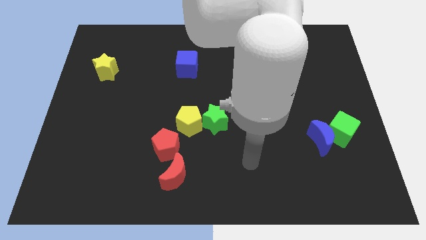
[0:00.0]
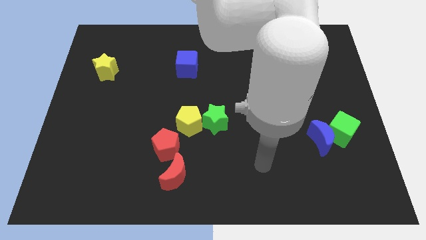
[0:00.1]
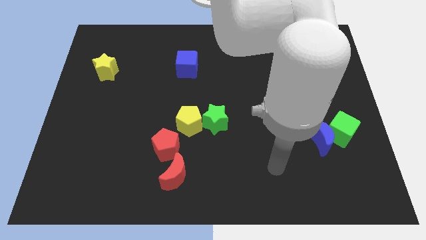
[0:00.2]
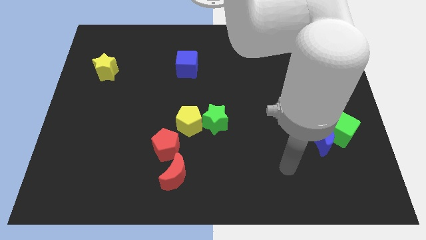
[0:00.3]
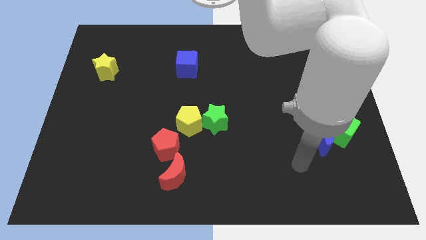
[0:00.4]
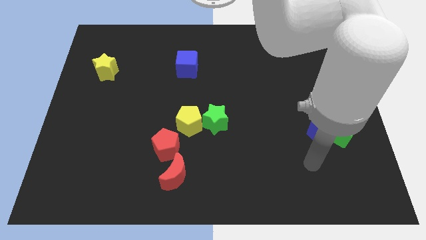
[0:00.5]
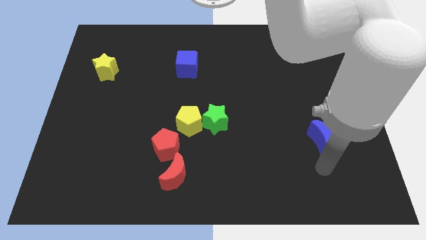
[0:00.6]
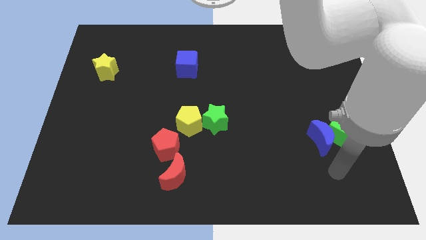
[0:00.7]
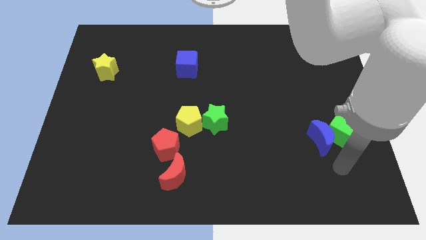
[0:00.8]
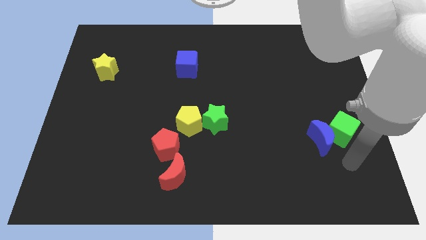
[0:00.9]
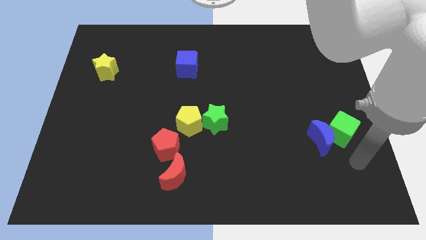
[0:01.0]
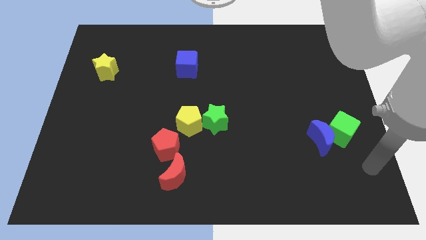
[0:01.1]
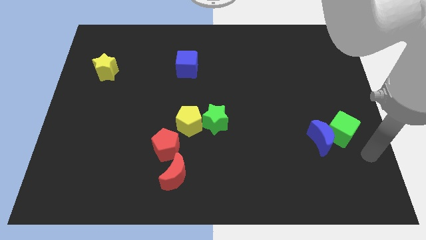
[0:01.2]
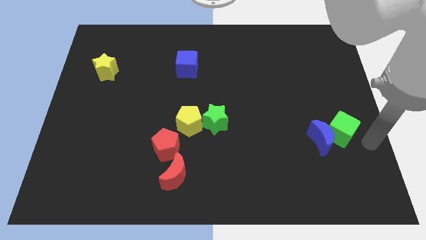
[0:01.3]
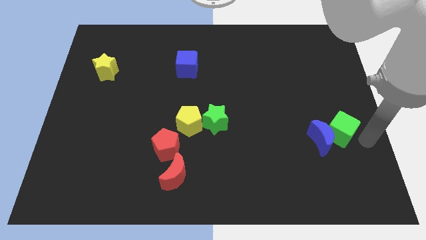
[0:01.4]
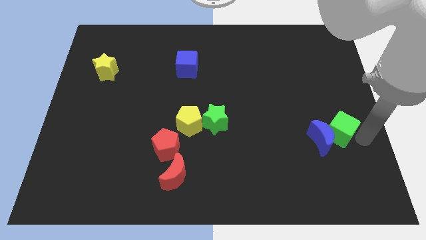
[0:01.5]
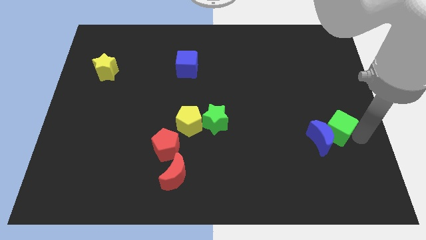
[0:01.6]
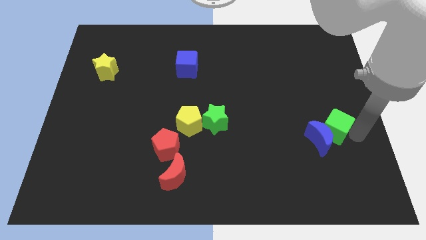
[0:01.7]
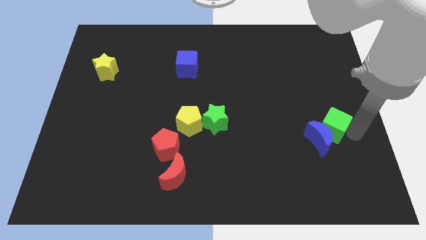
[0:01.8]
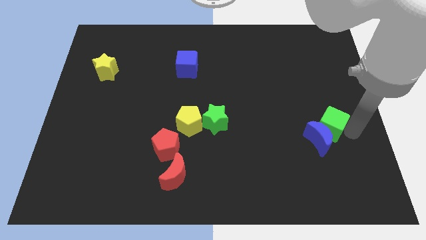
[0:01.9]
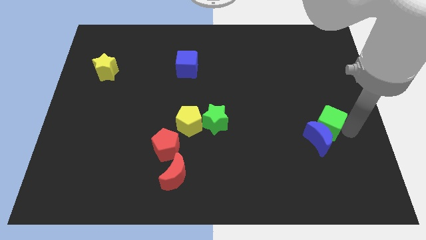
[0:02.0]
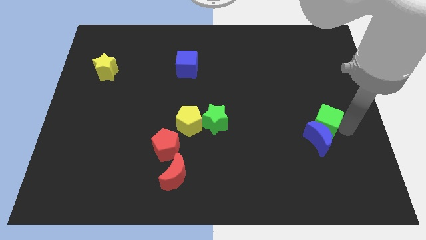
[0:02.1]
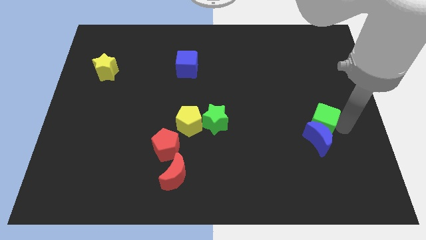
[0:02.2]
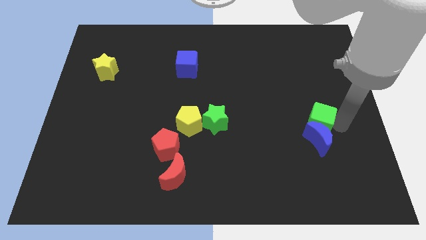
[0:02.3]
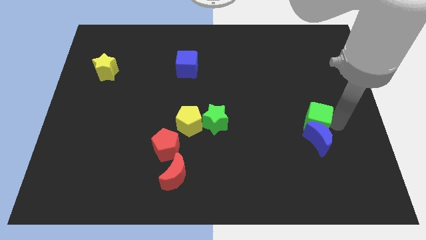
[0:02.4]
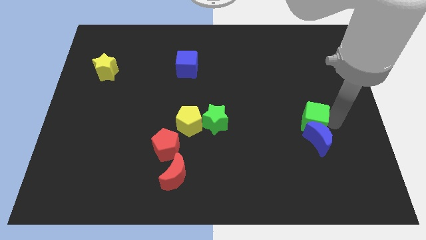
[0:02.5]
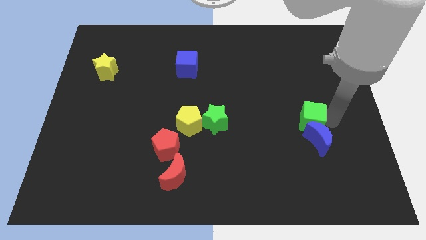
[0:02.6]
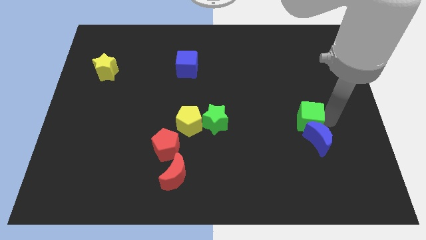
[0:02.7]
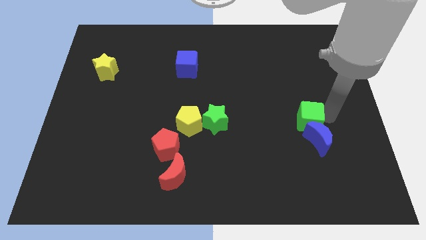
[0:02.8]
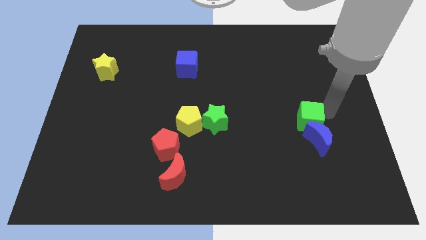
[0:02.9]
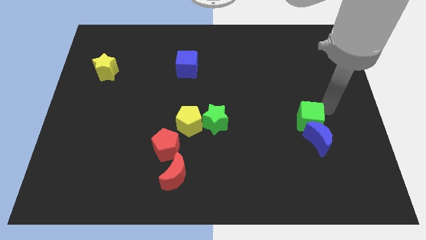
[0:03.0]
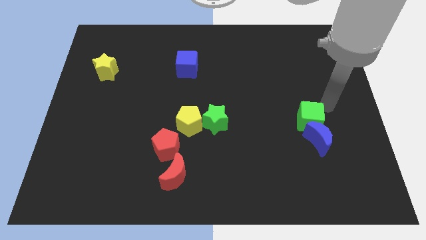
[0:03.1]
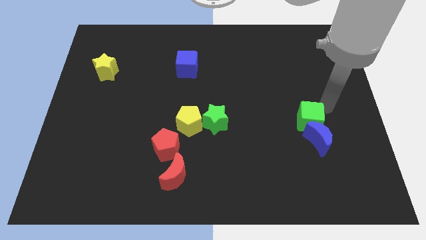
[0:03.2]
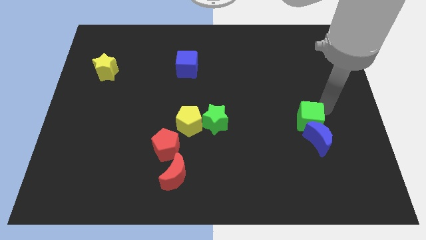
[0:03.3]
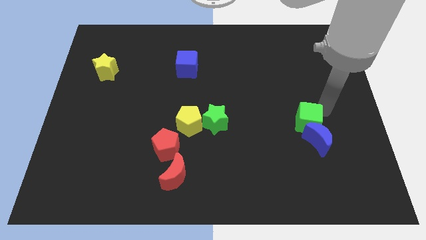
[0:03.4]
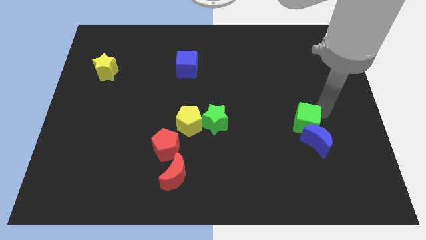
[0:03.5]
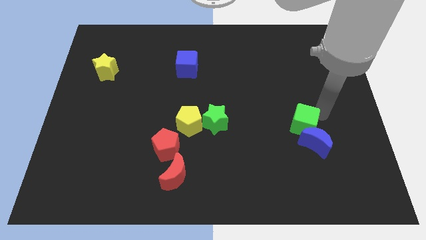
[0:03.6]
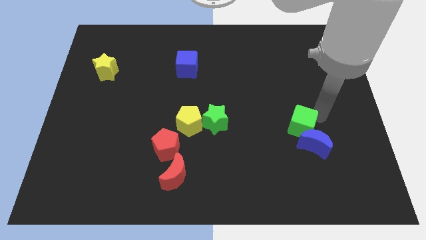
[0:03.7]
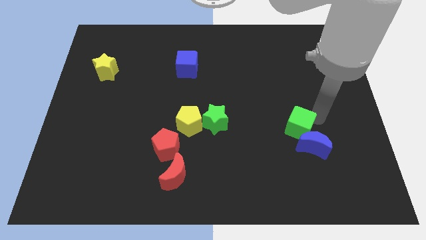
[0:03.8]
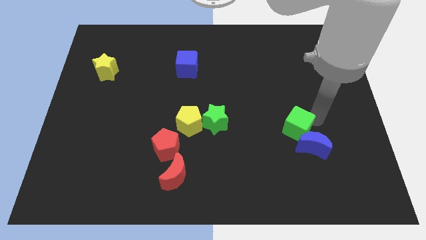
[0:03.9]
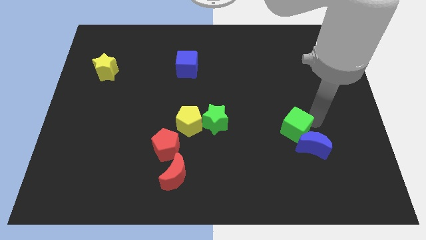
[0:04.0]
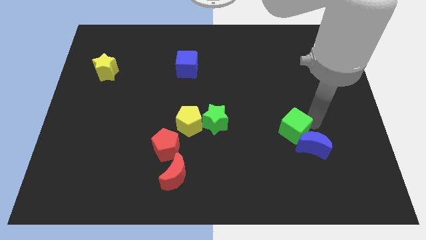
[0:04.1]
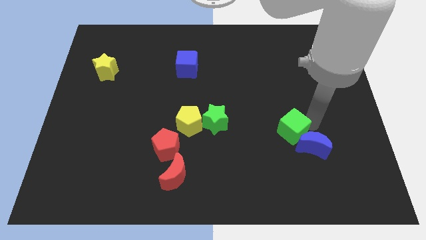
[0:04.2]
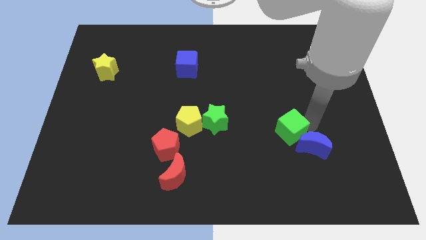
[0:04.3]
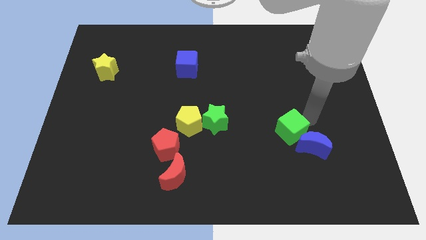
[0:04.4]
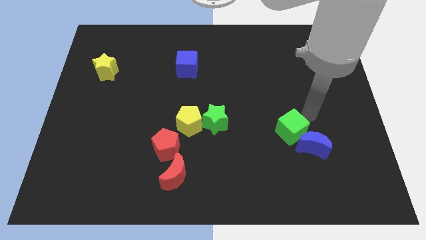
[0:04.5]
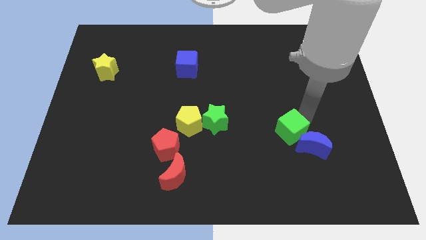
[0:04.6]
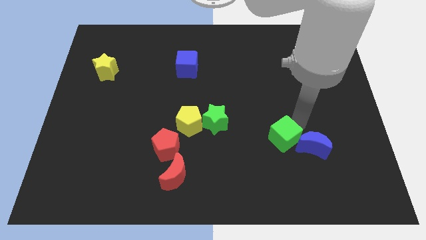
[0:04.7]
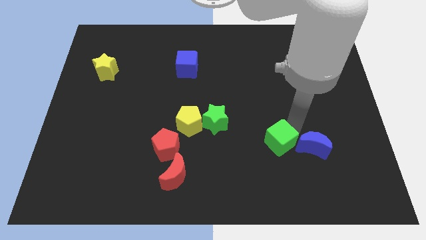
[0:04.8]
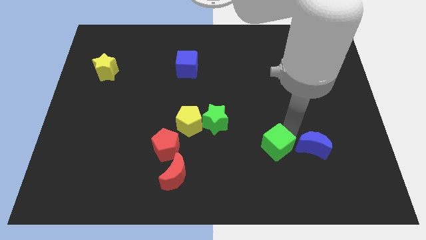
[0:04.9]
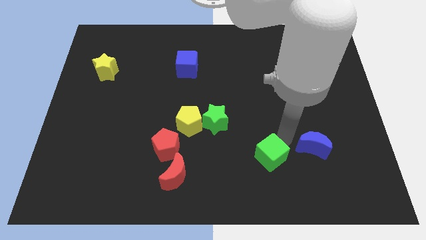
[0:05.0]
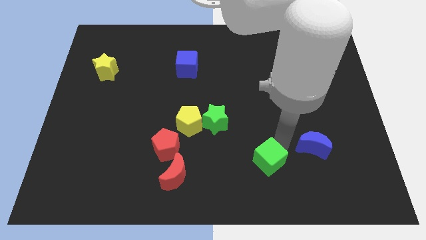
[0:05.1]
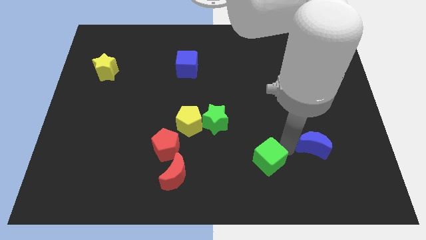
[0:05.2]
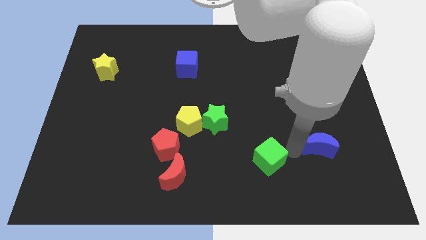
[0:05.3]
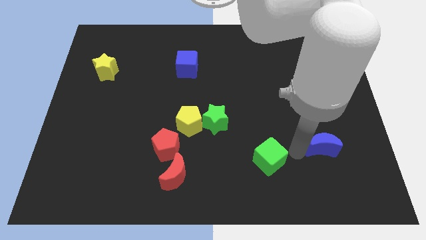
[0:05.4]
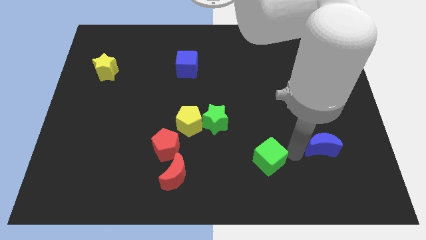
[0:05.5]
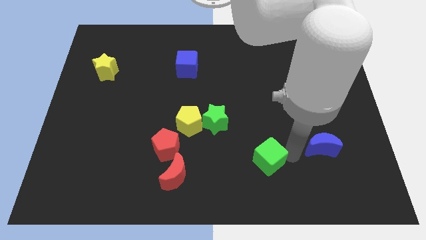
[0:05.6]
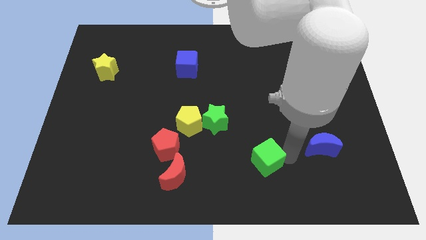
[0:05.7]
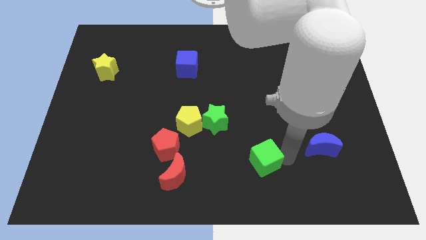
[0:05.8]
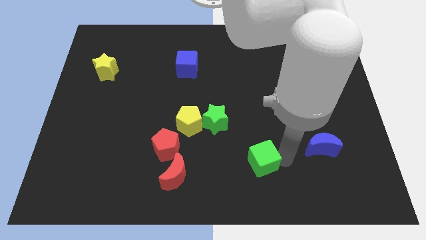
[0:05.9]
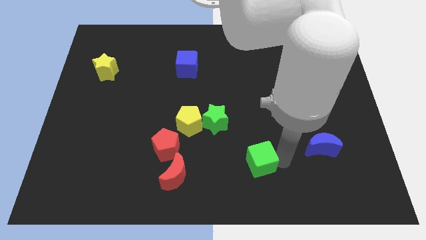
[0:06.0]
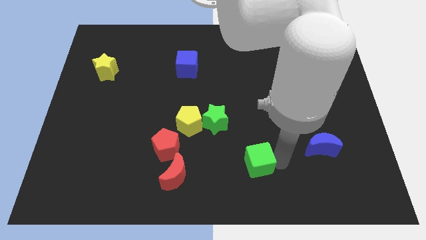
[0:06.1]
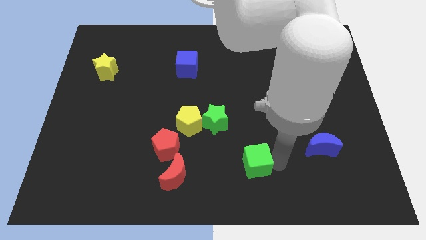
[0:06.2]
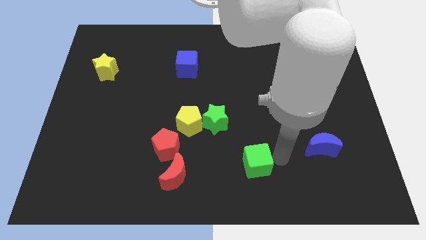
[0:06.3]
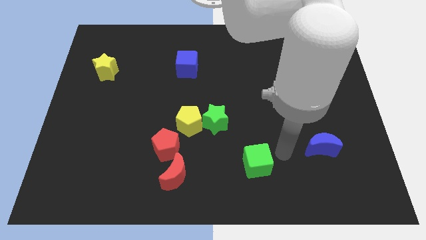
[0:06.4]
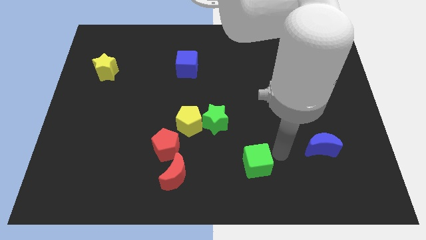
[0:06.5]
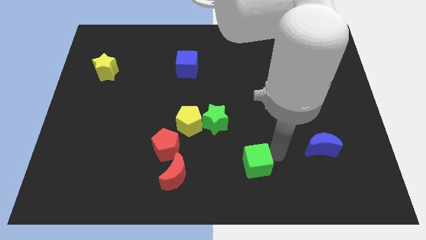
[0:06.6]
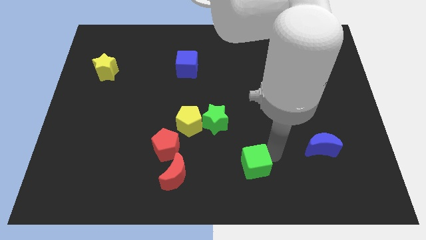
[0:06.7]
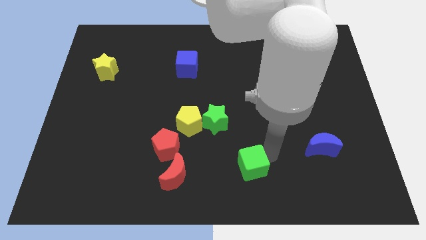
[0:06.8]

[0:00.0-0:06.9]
push the green cube to the right of the red moon

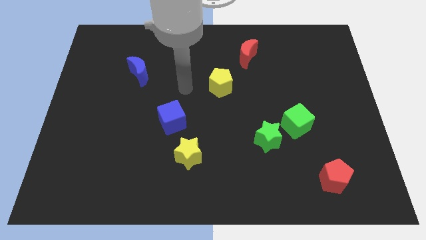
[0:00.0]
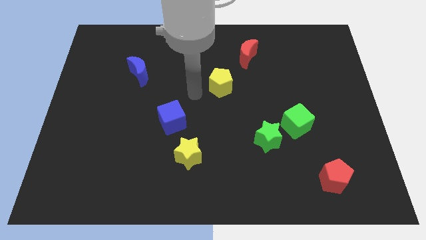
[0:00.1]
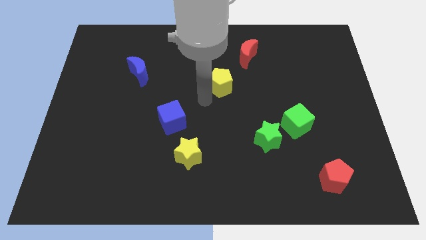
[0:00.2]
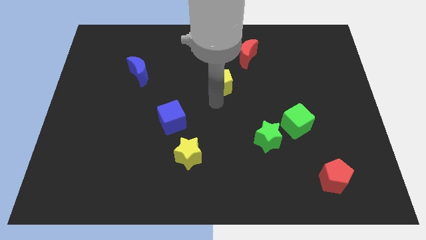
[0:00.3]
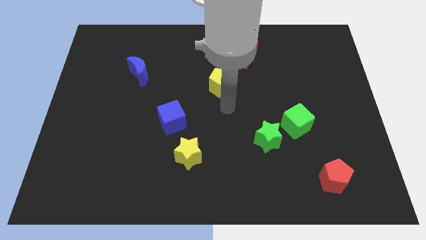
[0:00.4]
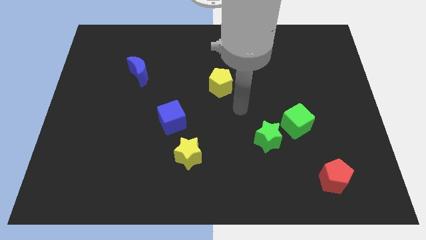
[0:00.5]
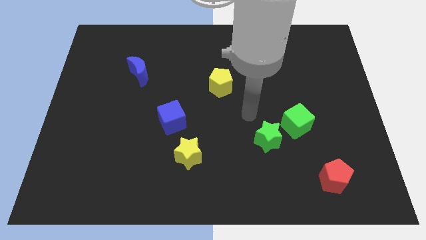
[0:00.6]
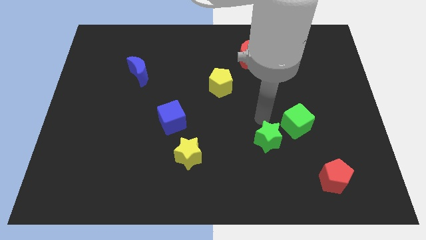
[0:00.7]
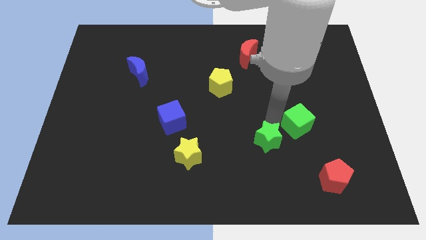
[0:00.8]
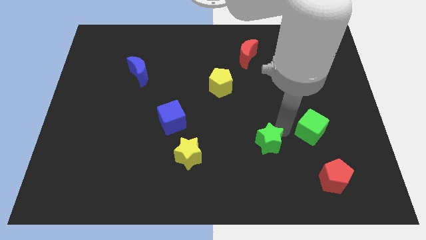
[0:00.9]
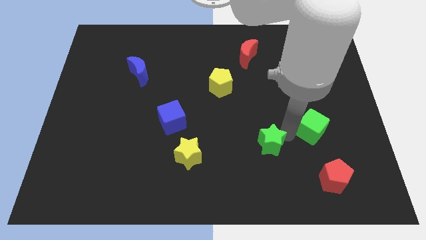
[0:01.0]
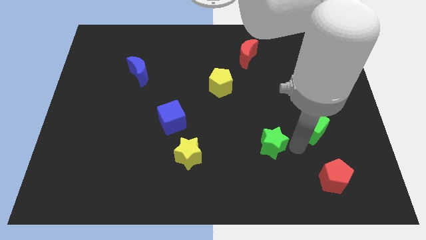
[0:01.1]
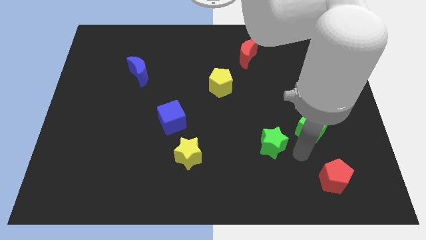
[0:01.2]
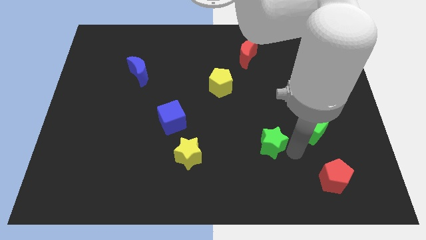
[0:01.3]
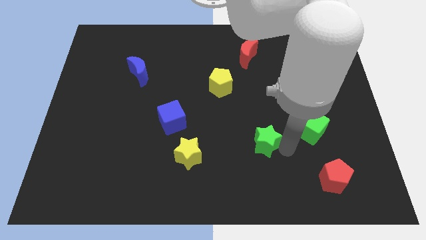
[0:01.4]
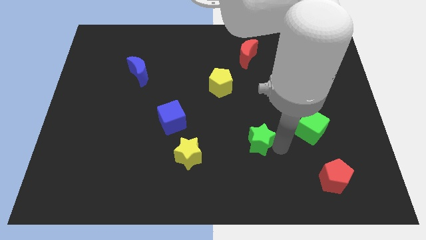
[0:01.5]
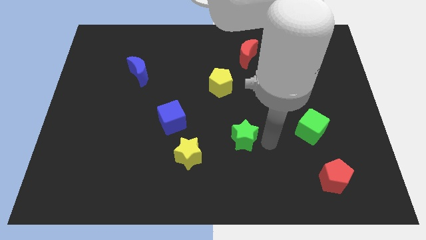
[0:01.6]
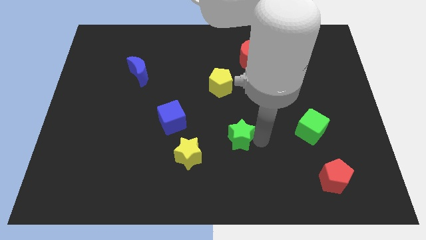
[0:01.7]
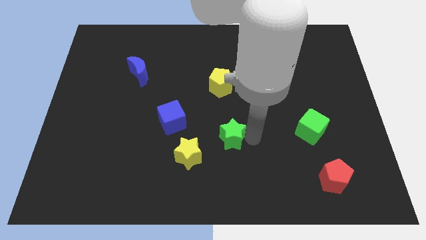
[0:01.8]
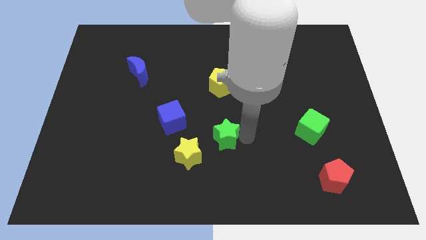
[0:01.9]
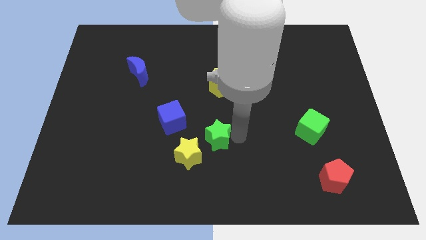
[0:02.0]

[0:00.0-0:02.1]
move the green star diagonally down and to the right of the blue cube
